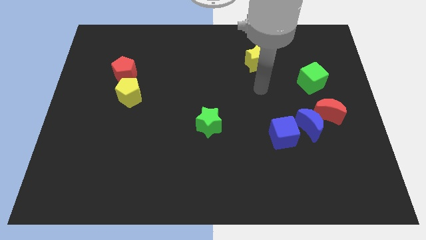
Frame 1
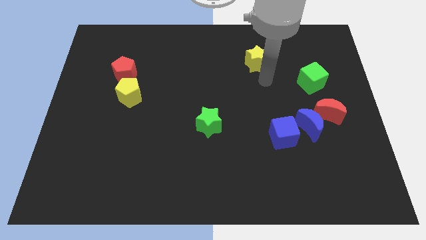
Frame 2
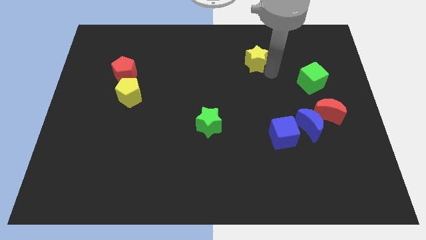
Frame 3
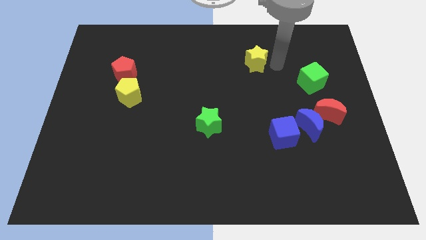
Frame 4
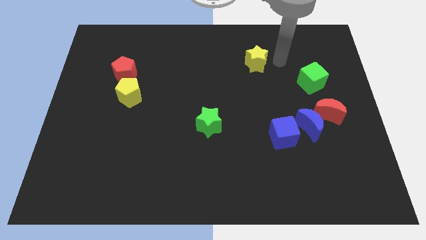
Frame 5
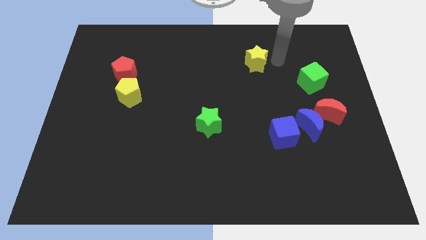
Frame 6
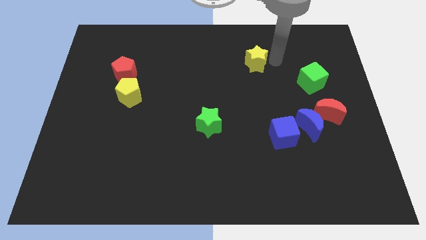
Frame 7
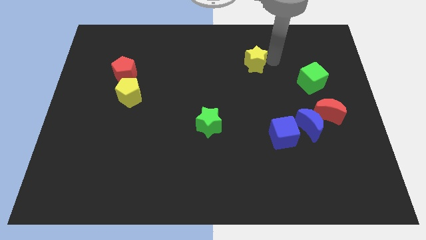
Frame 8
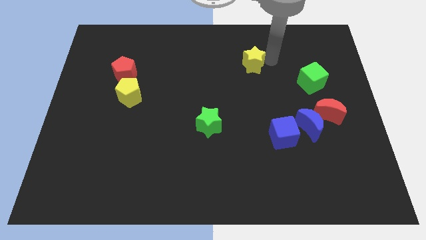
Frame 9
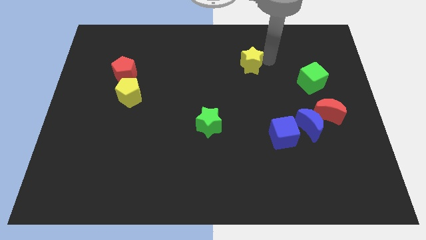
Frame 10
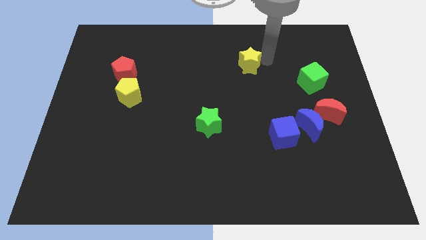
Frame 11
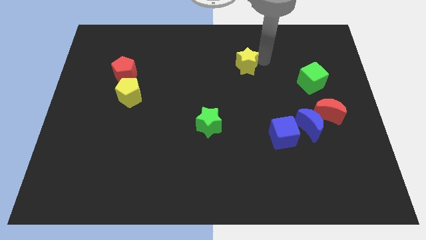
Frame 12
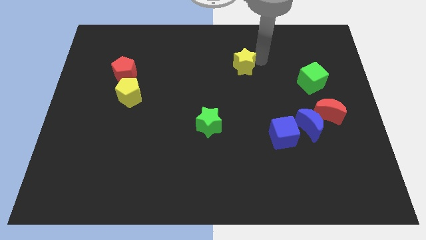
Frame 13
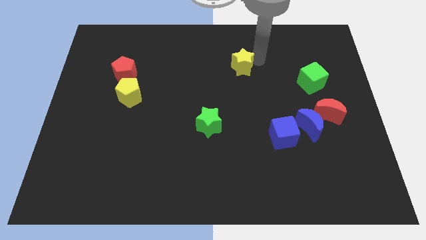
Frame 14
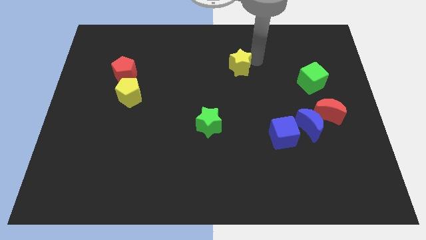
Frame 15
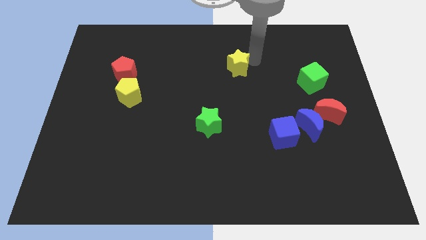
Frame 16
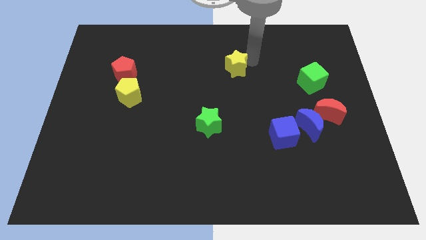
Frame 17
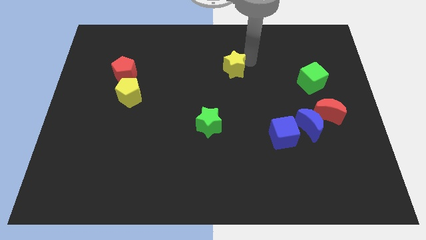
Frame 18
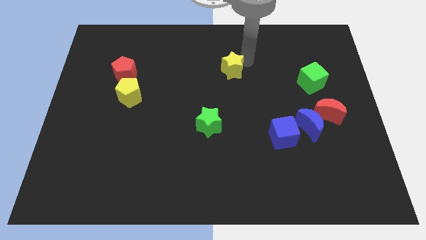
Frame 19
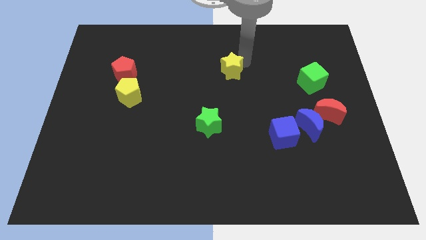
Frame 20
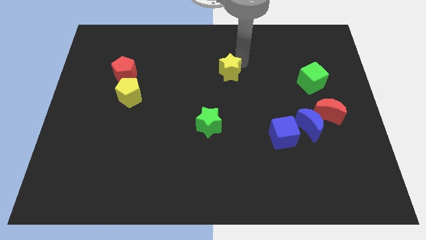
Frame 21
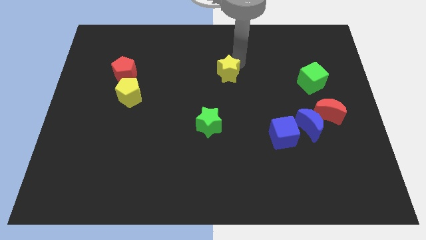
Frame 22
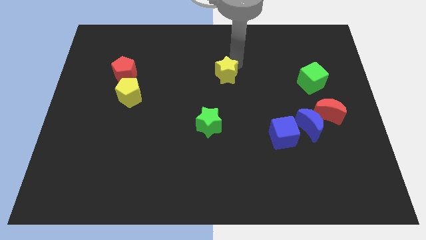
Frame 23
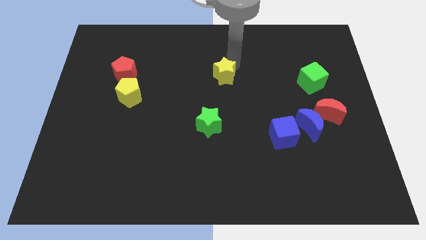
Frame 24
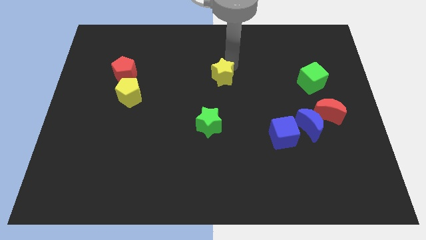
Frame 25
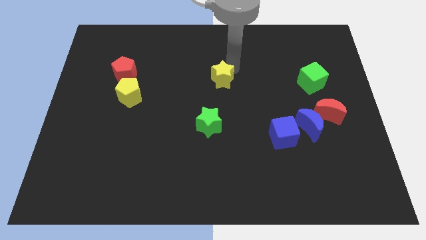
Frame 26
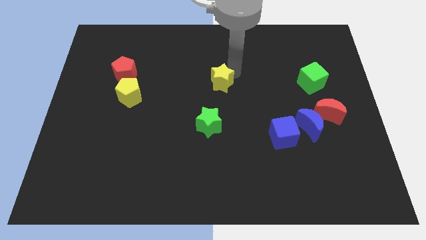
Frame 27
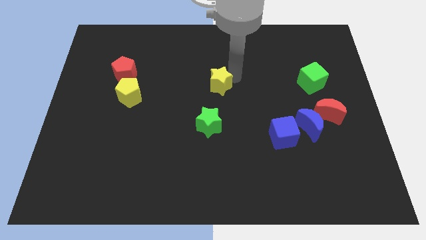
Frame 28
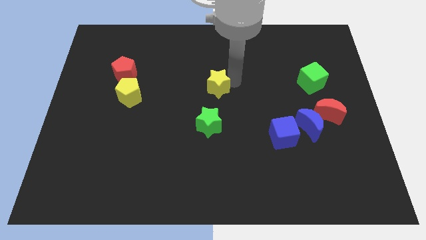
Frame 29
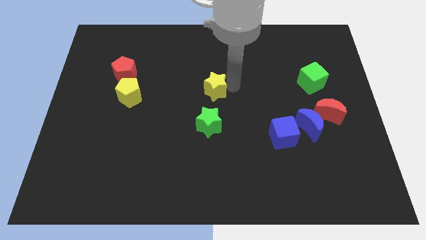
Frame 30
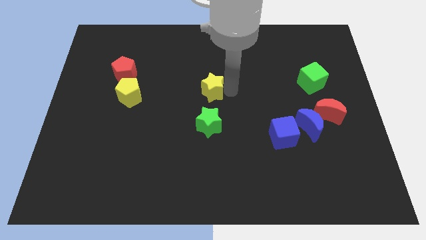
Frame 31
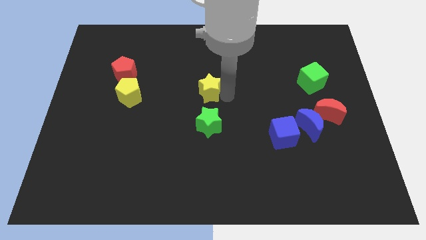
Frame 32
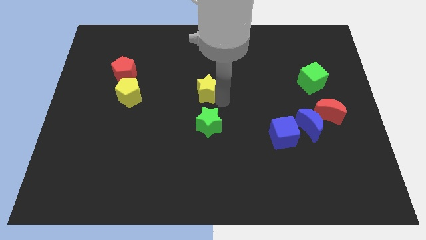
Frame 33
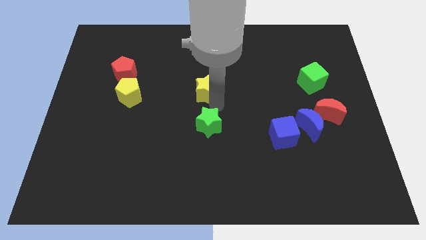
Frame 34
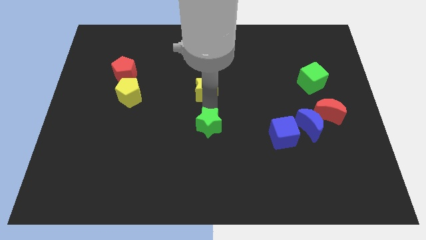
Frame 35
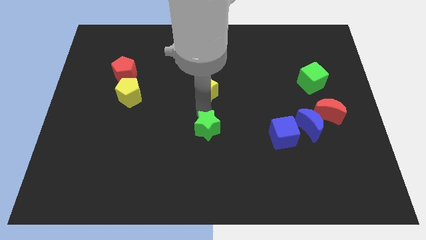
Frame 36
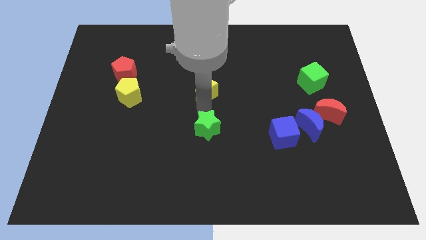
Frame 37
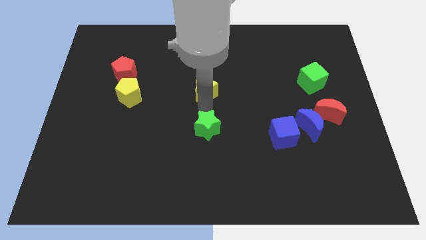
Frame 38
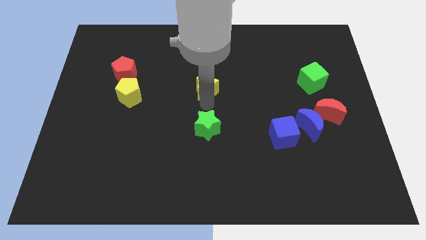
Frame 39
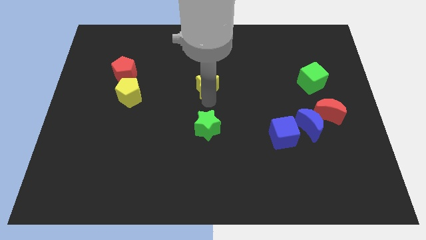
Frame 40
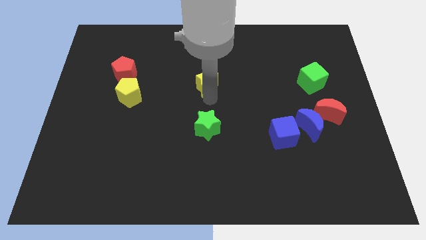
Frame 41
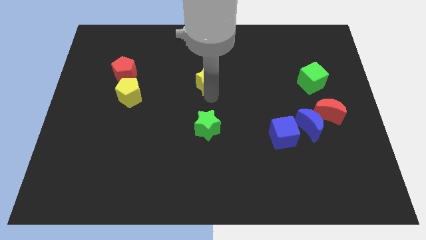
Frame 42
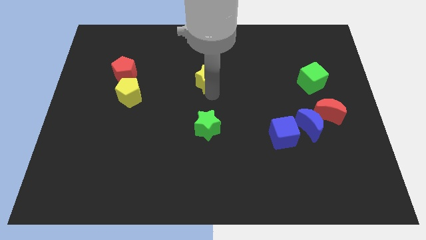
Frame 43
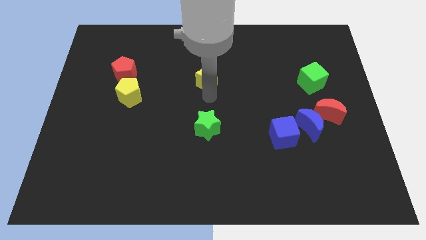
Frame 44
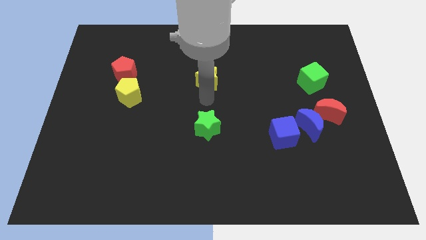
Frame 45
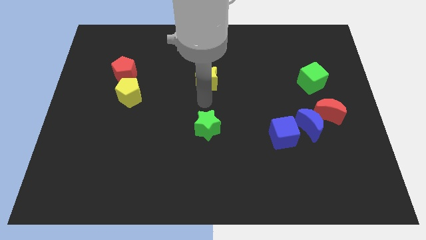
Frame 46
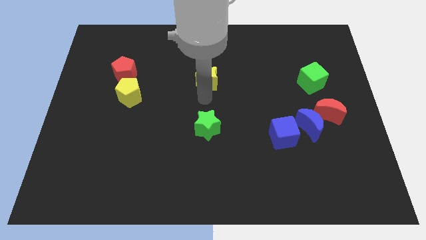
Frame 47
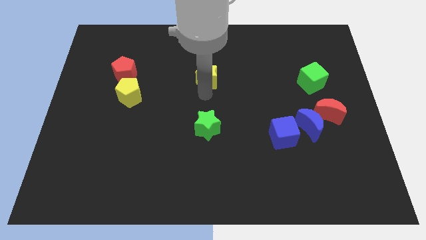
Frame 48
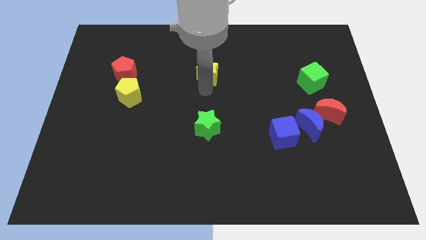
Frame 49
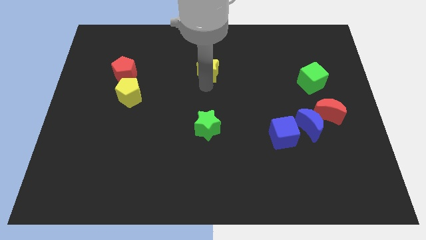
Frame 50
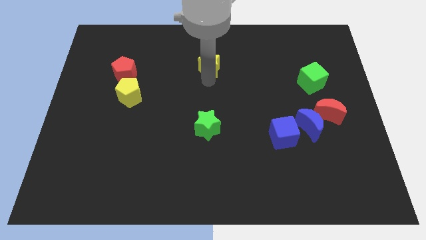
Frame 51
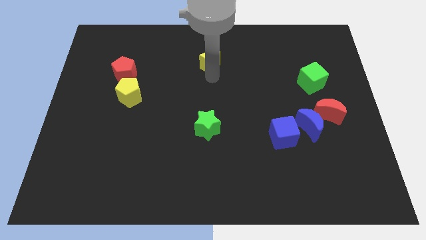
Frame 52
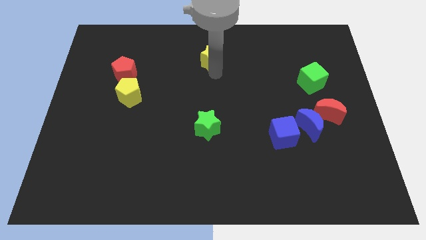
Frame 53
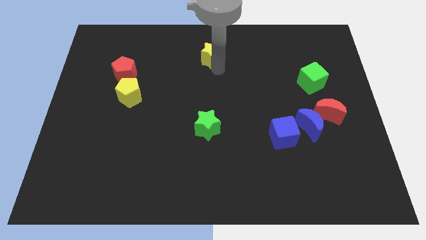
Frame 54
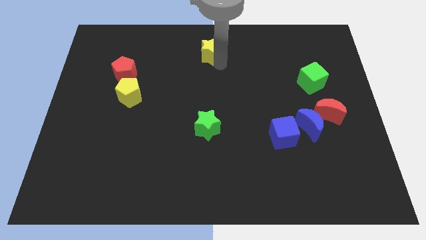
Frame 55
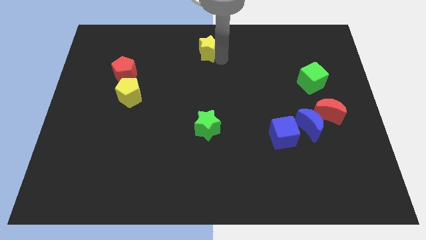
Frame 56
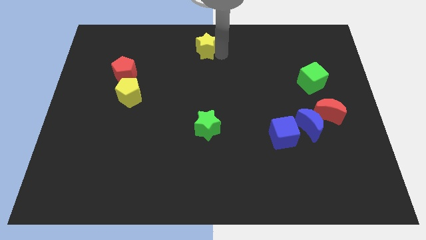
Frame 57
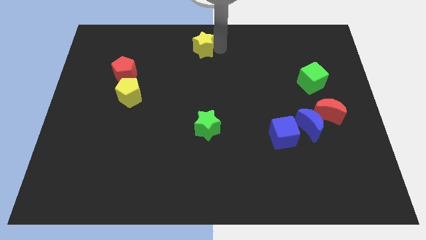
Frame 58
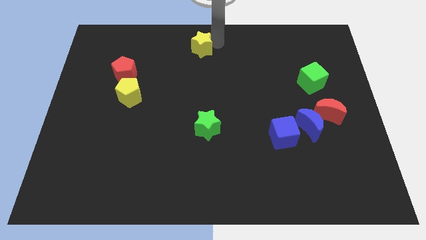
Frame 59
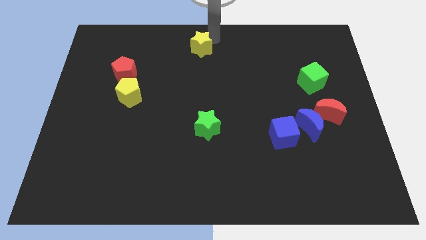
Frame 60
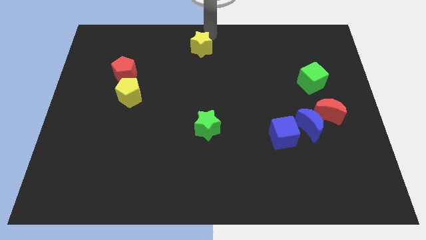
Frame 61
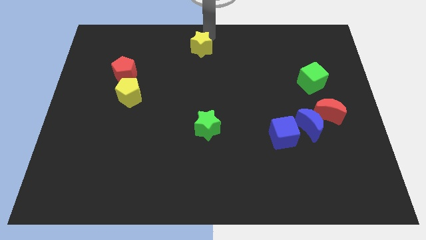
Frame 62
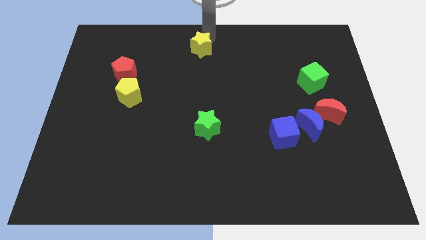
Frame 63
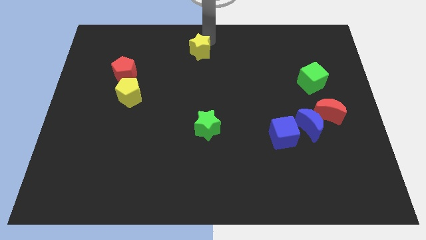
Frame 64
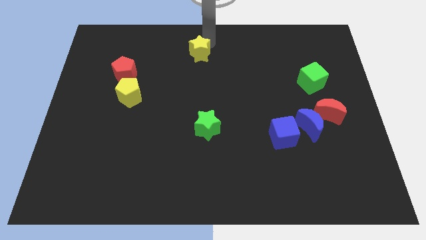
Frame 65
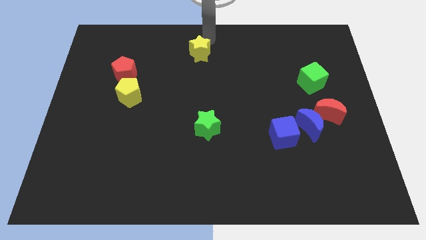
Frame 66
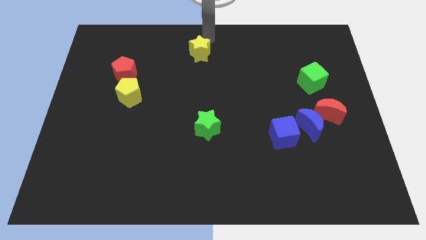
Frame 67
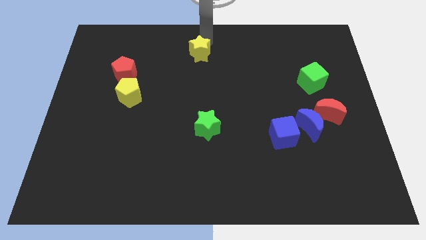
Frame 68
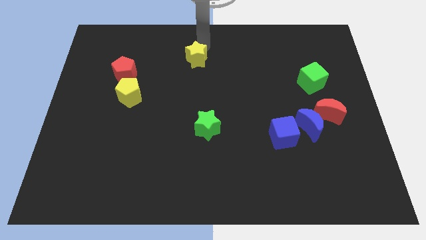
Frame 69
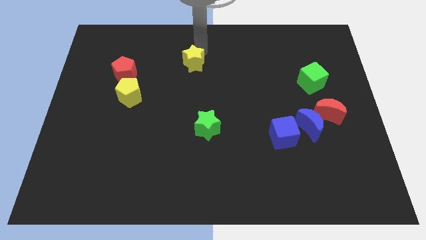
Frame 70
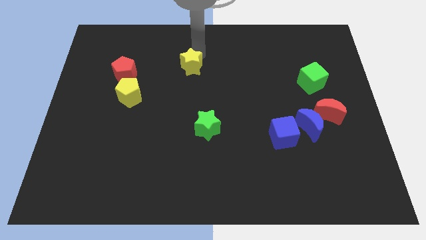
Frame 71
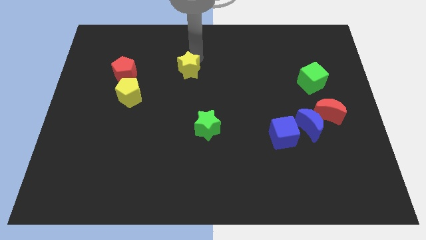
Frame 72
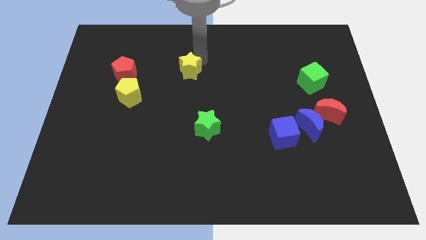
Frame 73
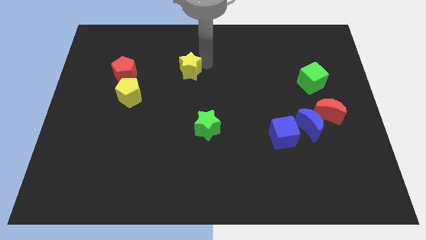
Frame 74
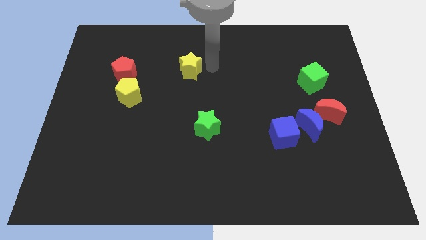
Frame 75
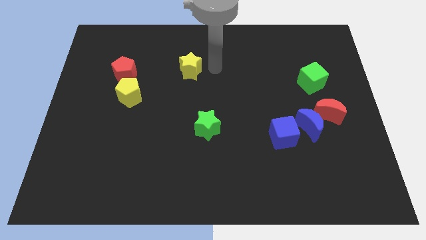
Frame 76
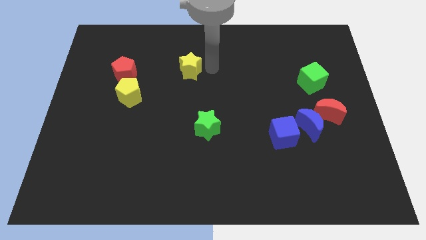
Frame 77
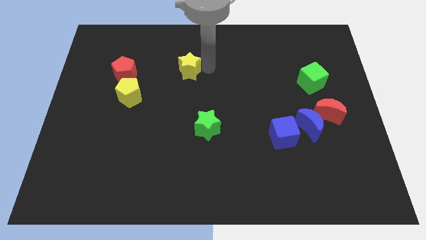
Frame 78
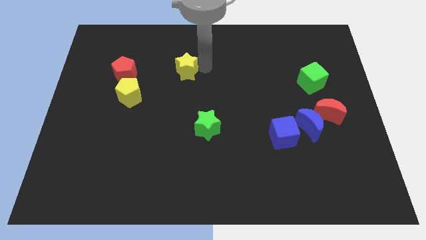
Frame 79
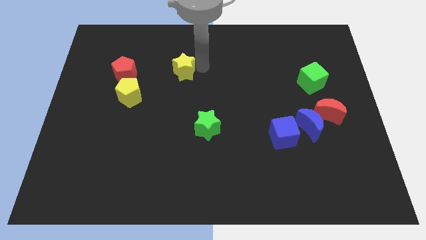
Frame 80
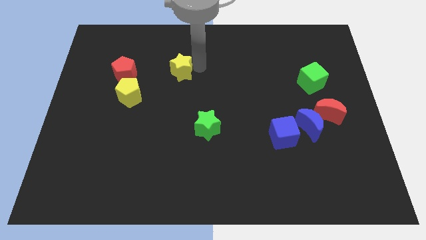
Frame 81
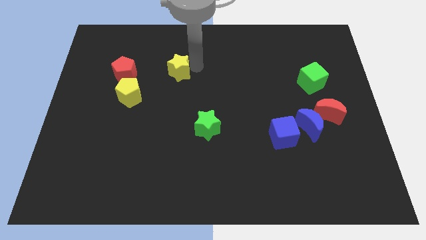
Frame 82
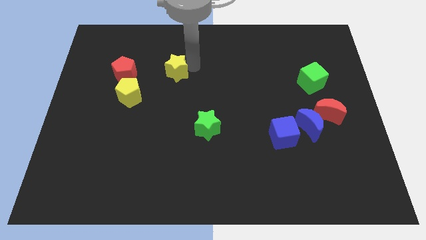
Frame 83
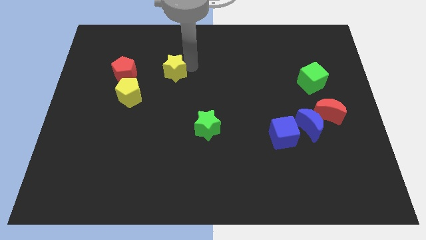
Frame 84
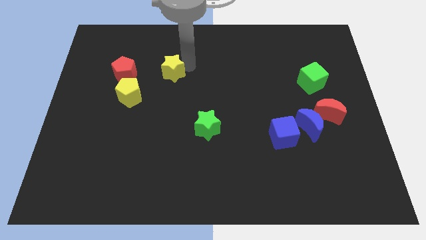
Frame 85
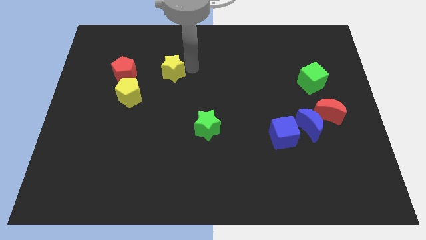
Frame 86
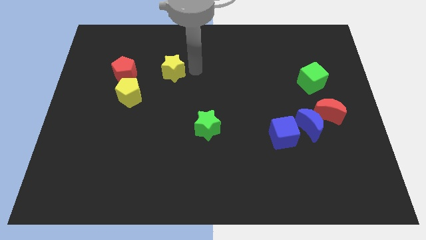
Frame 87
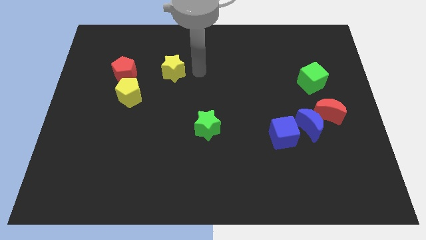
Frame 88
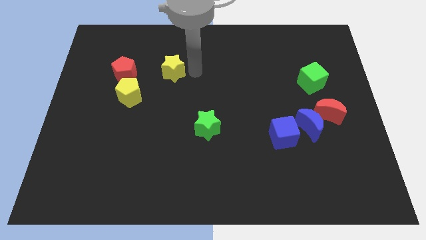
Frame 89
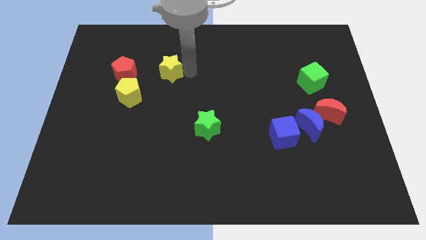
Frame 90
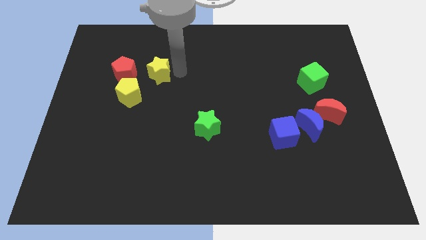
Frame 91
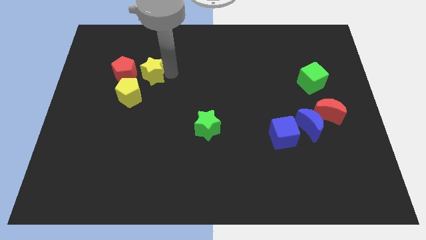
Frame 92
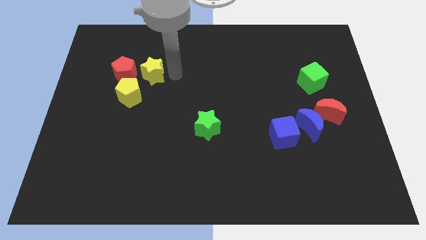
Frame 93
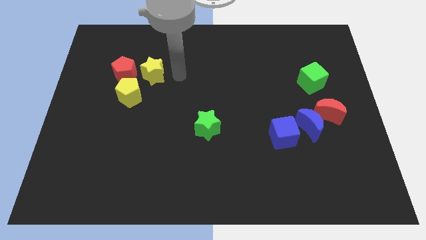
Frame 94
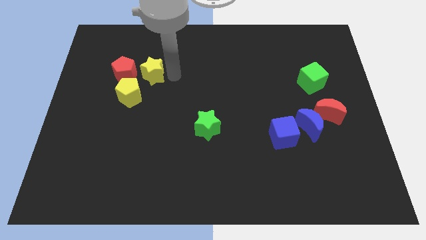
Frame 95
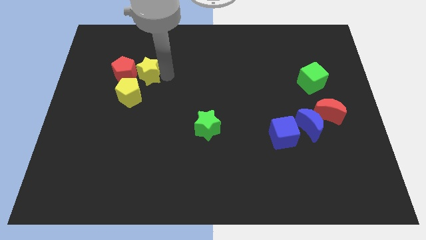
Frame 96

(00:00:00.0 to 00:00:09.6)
move the yellow star towards the red pentagon
